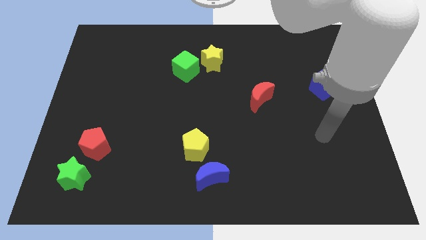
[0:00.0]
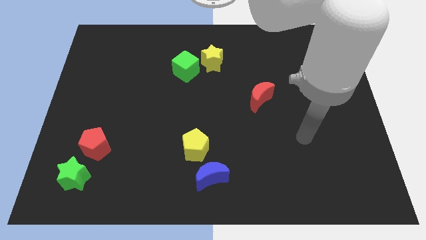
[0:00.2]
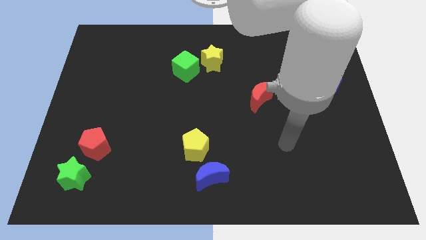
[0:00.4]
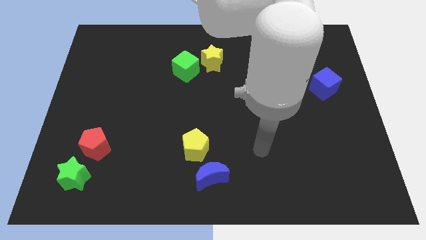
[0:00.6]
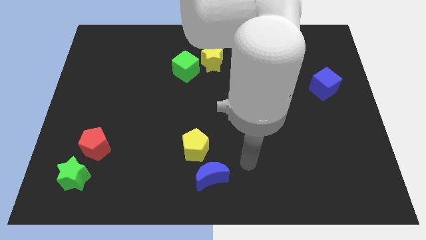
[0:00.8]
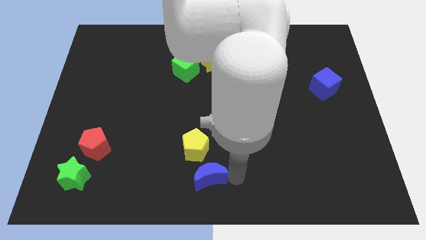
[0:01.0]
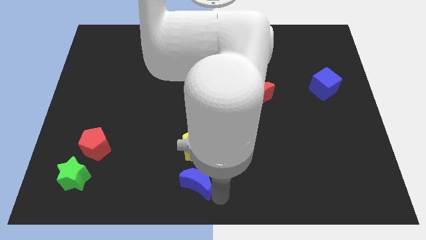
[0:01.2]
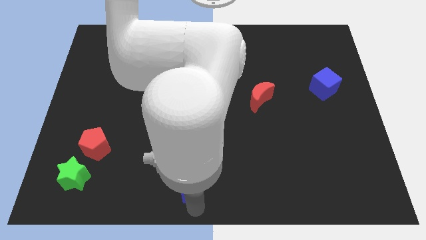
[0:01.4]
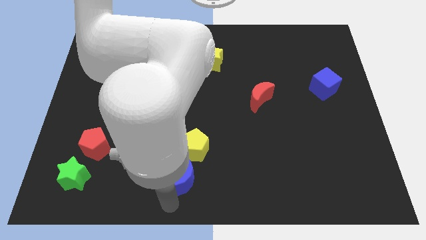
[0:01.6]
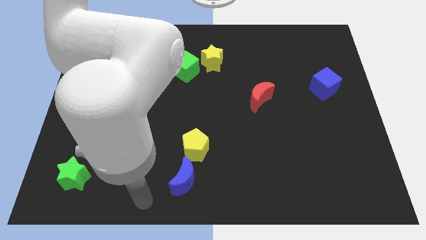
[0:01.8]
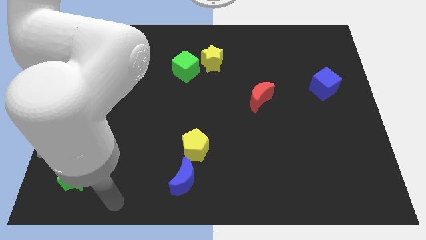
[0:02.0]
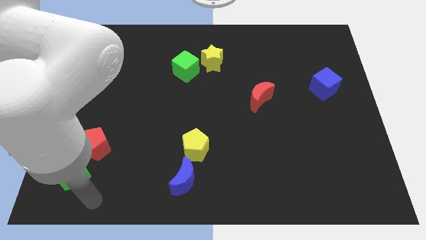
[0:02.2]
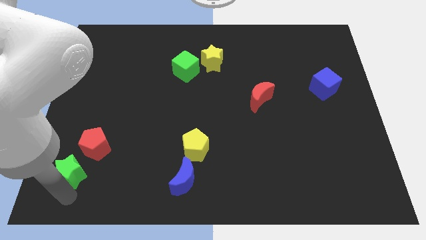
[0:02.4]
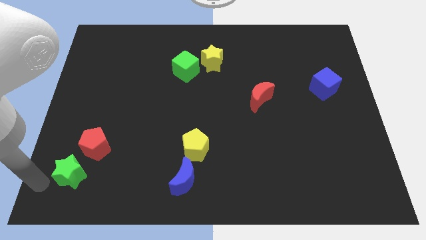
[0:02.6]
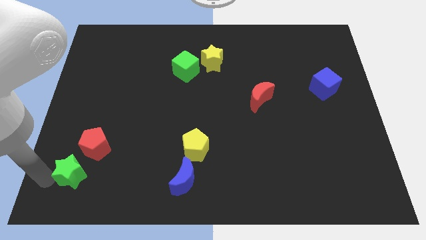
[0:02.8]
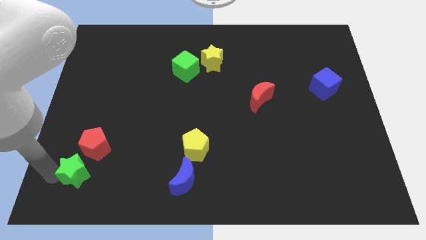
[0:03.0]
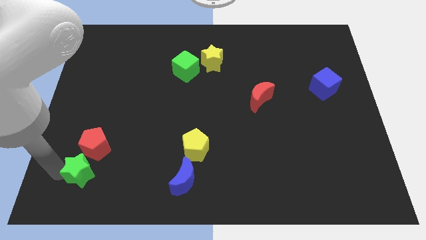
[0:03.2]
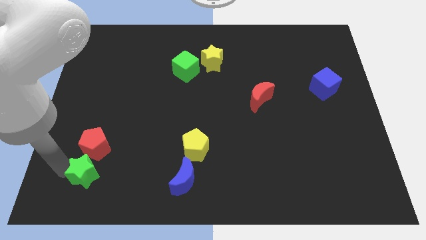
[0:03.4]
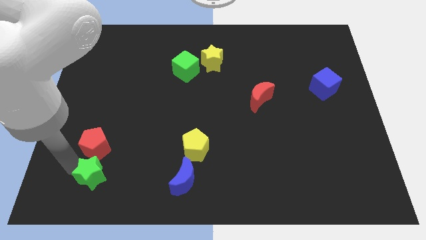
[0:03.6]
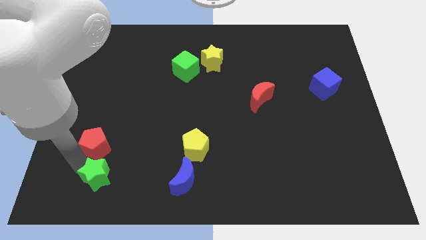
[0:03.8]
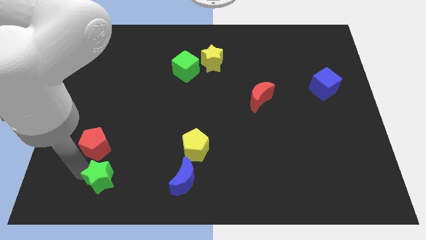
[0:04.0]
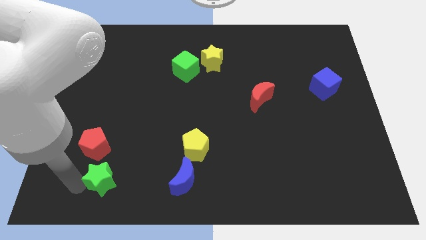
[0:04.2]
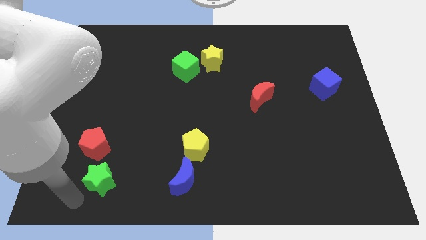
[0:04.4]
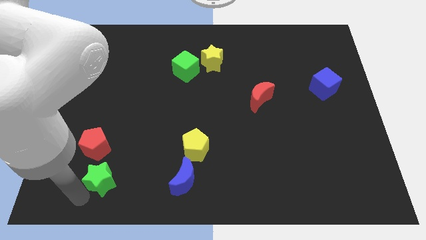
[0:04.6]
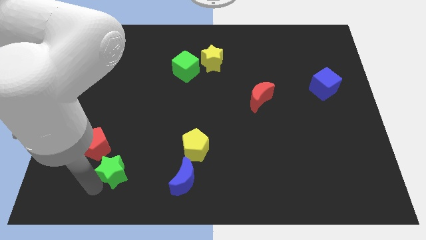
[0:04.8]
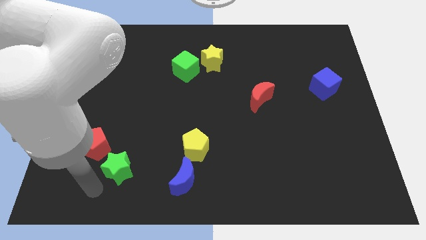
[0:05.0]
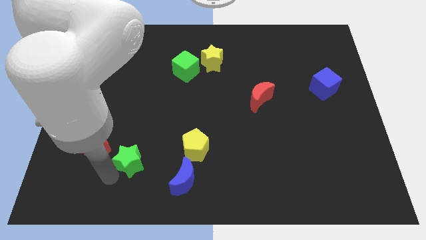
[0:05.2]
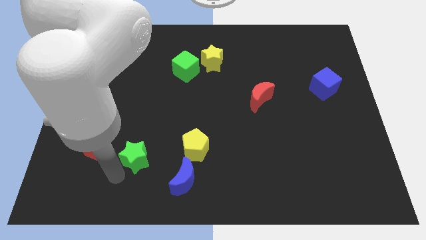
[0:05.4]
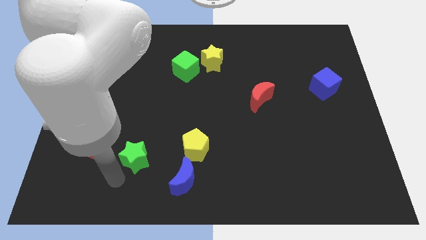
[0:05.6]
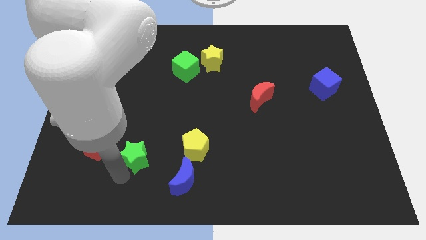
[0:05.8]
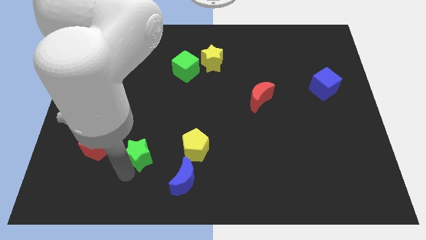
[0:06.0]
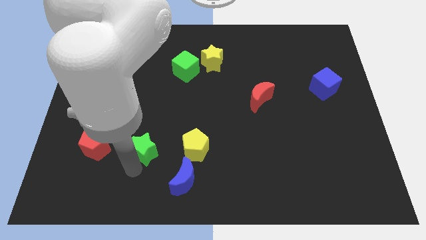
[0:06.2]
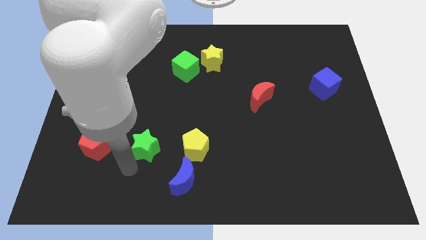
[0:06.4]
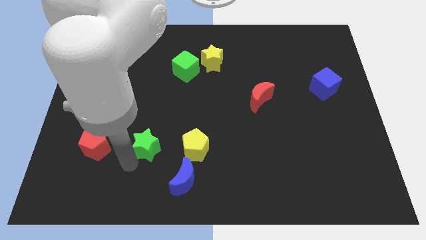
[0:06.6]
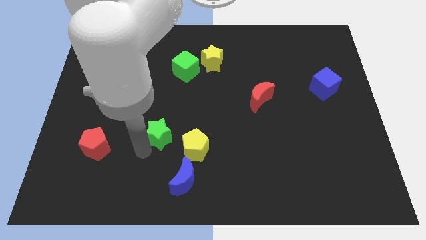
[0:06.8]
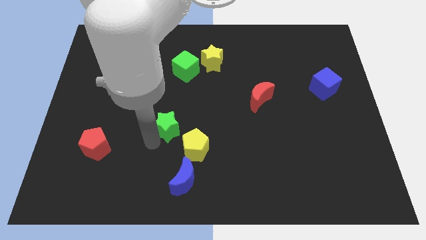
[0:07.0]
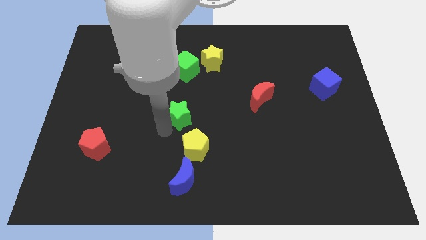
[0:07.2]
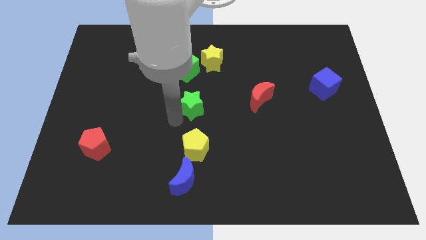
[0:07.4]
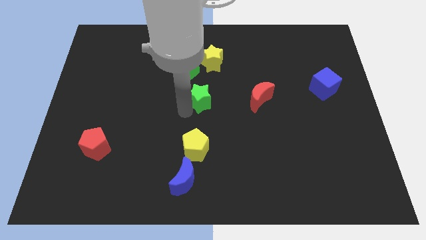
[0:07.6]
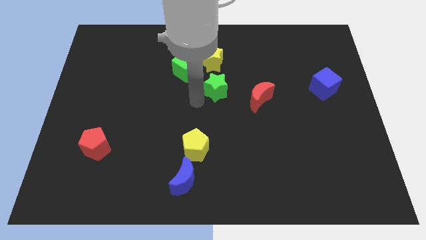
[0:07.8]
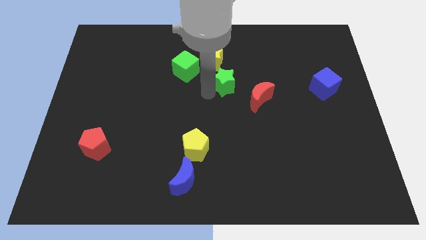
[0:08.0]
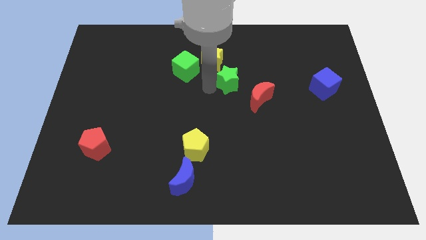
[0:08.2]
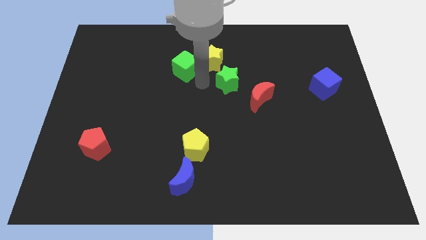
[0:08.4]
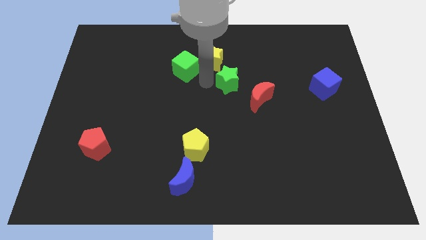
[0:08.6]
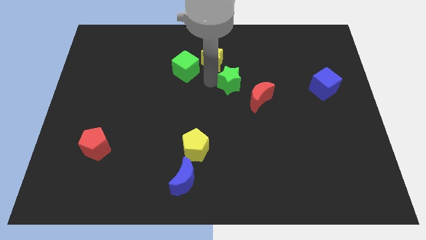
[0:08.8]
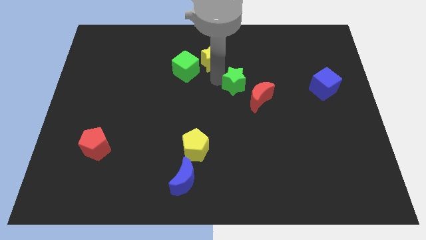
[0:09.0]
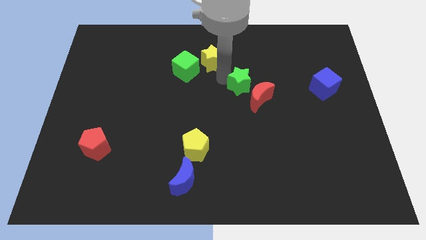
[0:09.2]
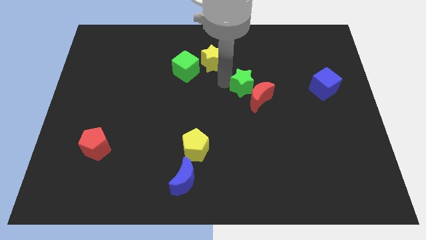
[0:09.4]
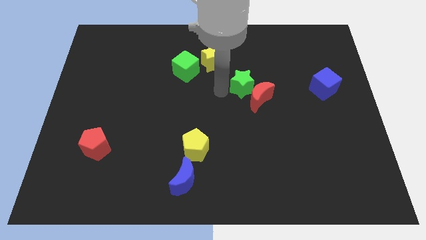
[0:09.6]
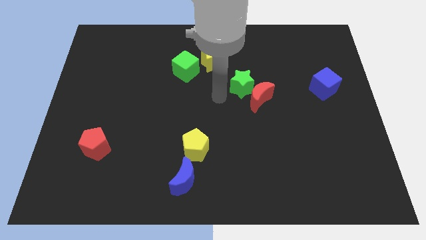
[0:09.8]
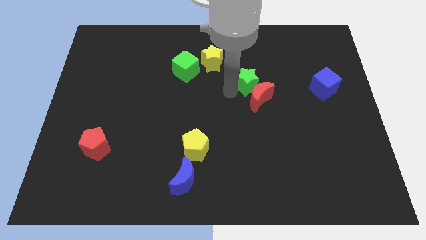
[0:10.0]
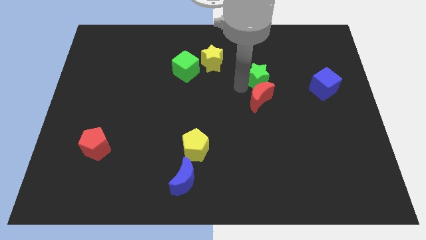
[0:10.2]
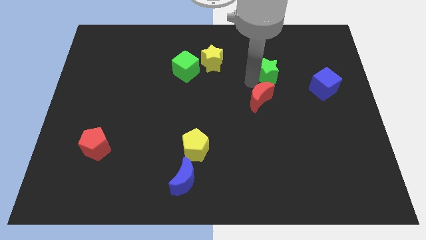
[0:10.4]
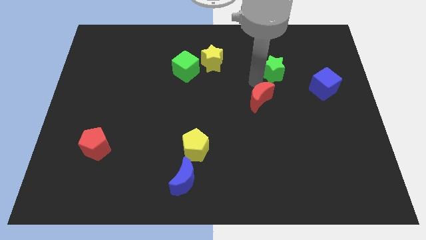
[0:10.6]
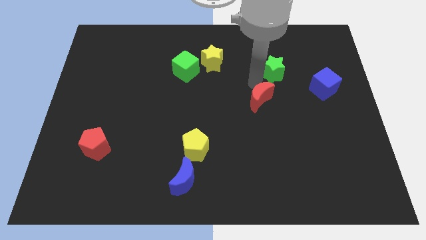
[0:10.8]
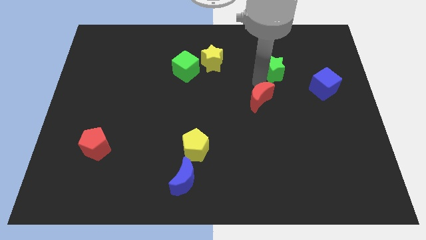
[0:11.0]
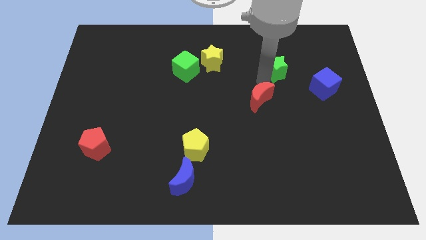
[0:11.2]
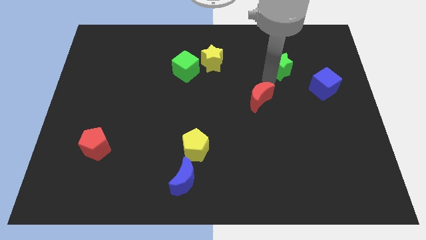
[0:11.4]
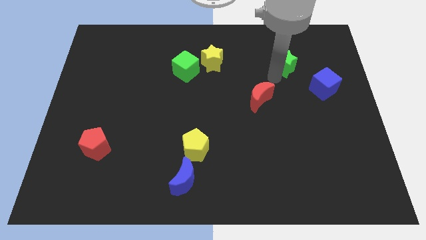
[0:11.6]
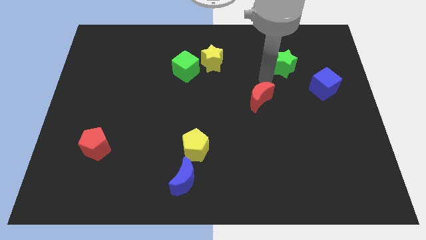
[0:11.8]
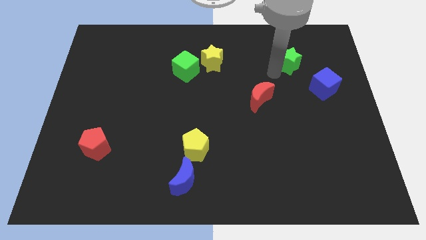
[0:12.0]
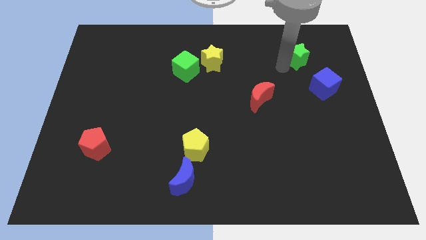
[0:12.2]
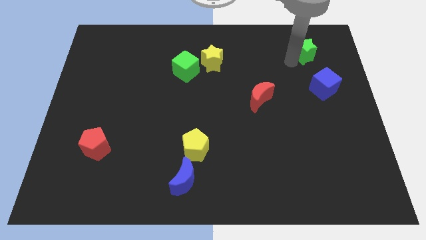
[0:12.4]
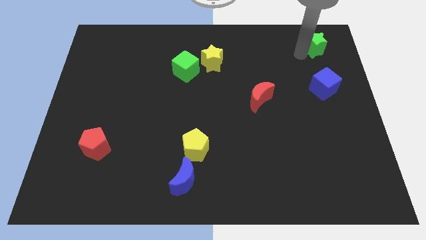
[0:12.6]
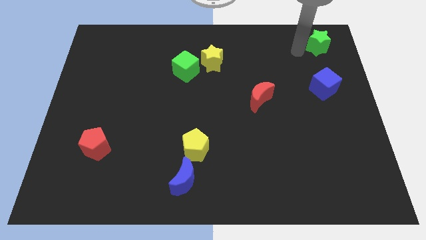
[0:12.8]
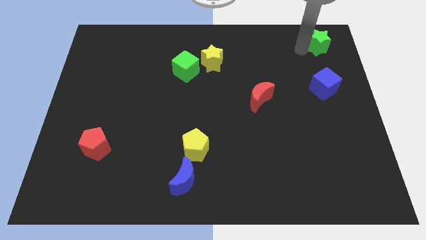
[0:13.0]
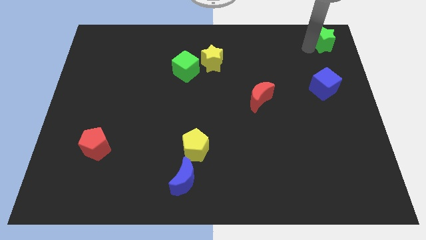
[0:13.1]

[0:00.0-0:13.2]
slide the green star to the top right
